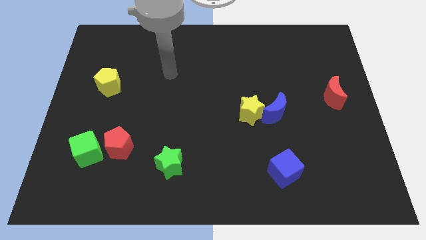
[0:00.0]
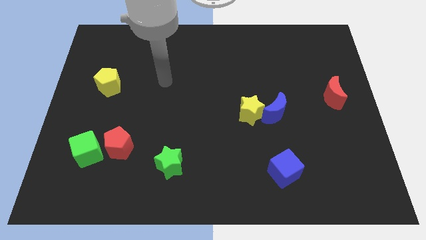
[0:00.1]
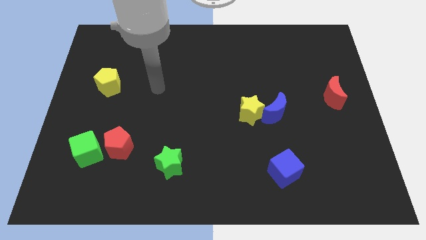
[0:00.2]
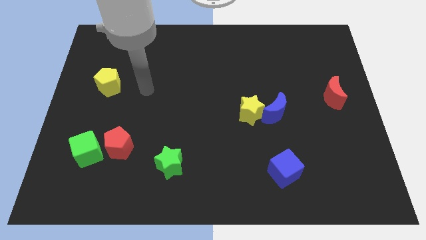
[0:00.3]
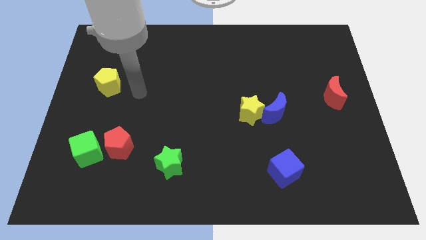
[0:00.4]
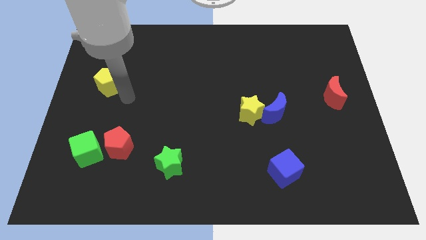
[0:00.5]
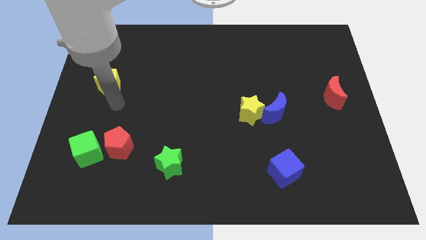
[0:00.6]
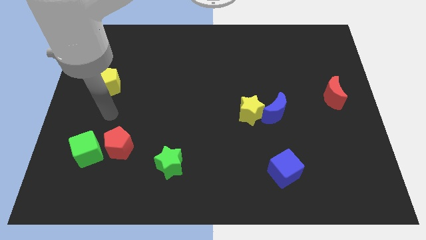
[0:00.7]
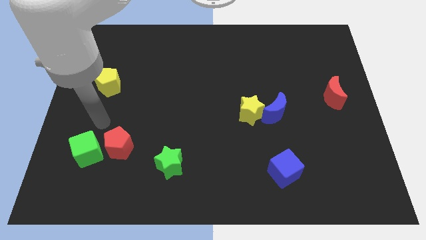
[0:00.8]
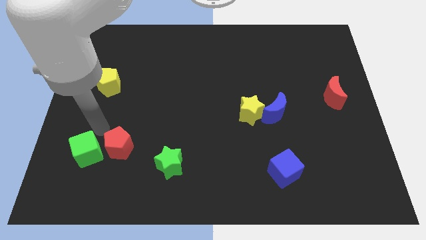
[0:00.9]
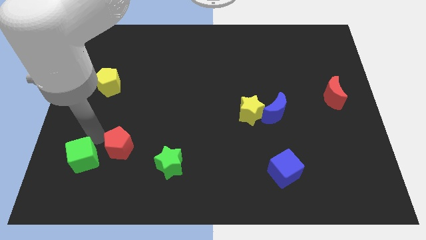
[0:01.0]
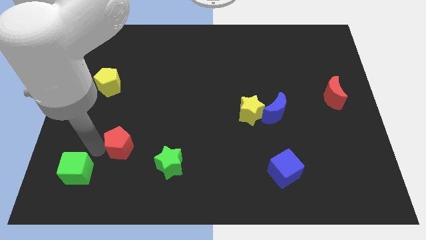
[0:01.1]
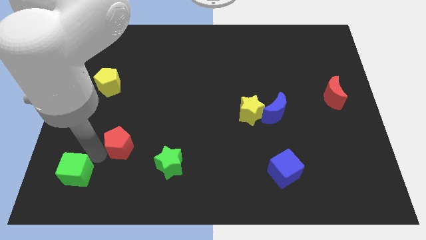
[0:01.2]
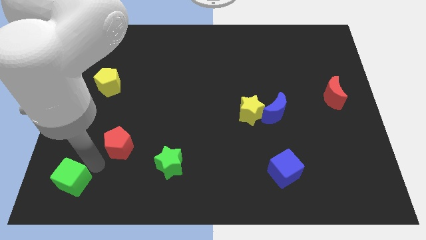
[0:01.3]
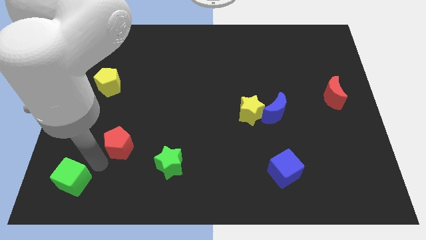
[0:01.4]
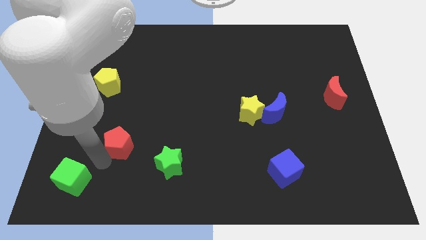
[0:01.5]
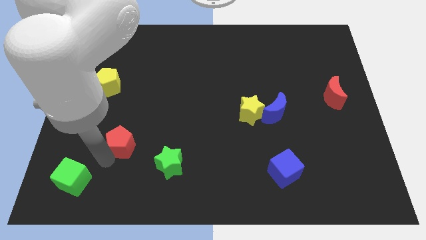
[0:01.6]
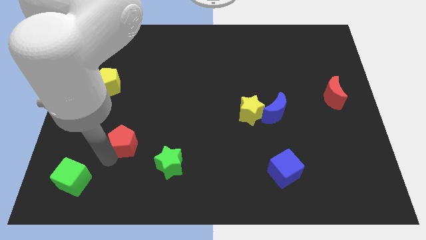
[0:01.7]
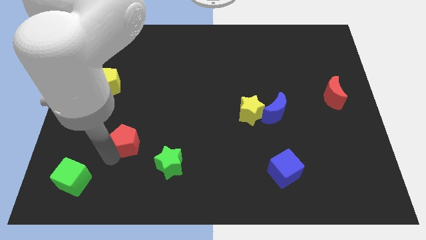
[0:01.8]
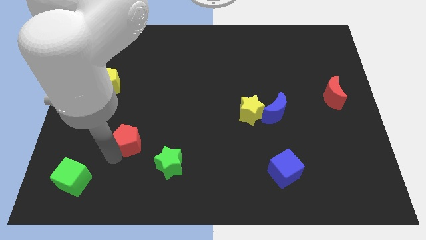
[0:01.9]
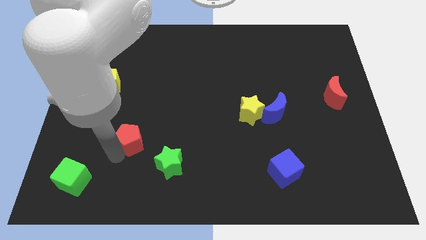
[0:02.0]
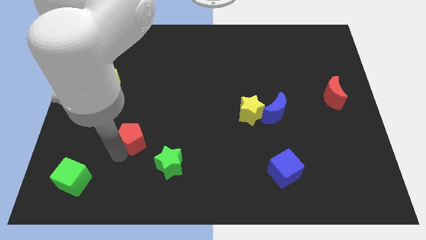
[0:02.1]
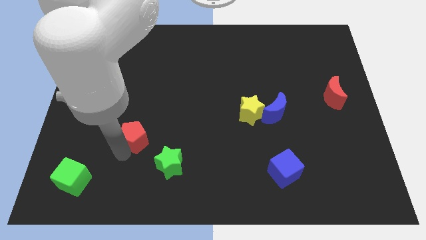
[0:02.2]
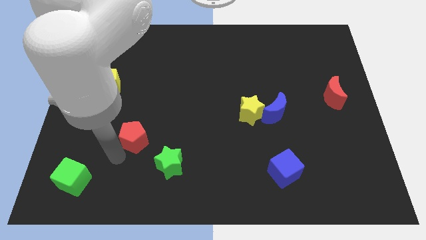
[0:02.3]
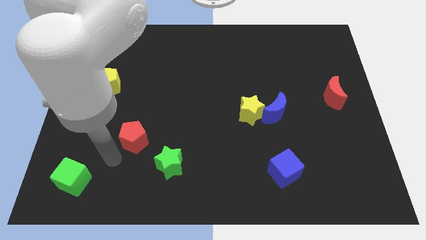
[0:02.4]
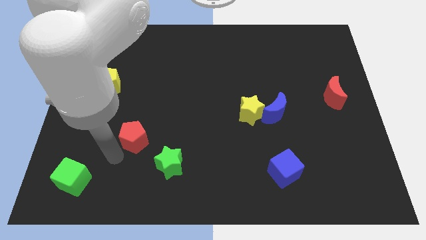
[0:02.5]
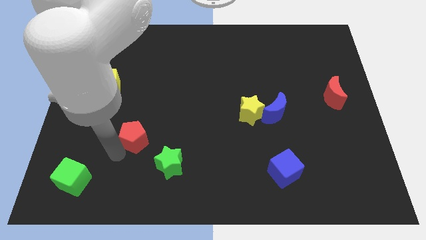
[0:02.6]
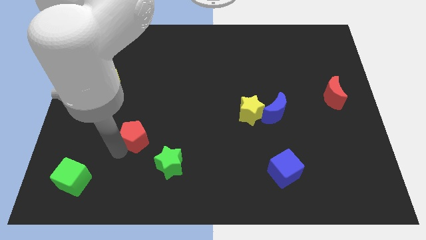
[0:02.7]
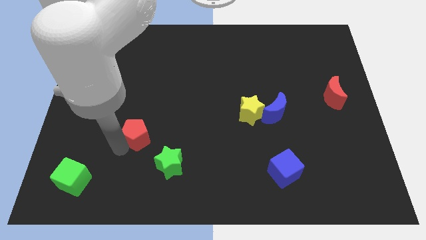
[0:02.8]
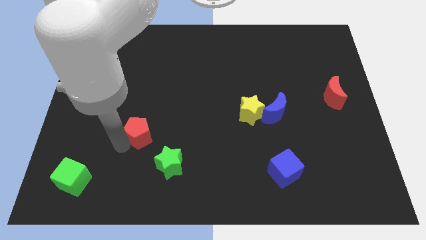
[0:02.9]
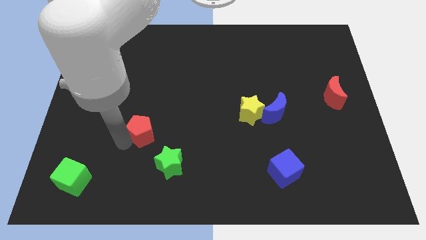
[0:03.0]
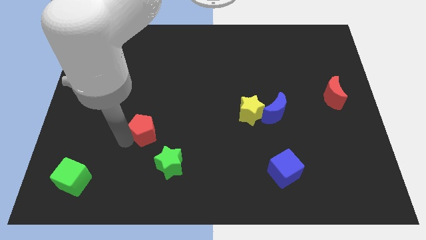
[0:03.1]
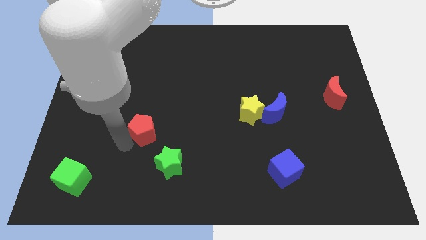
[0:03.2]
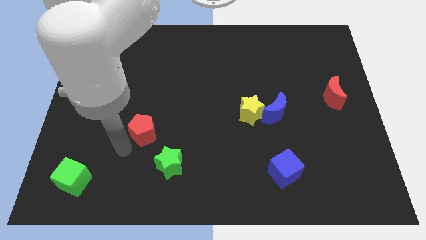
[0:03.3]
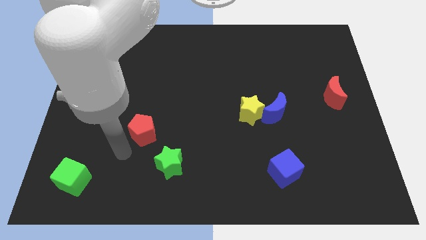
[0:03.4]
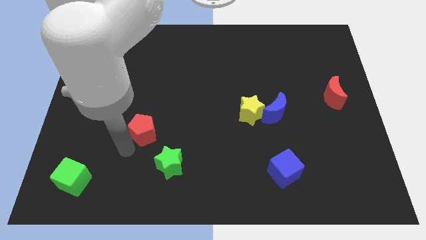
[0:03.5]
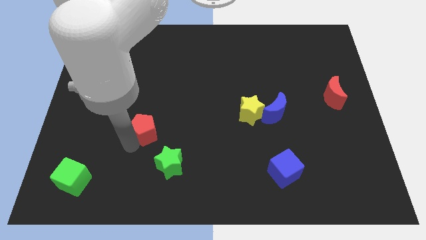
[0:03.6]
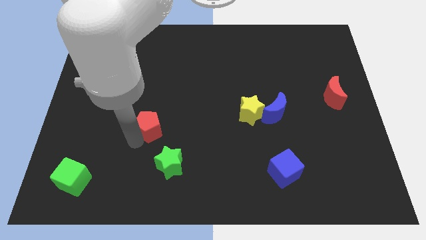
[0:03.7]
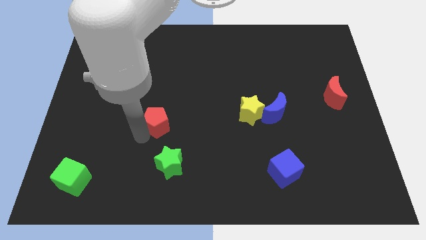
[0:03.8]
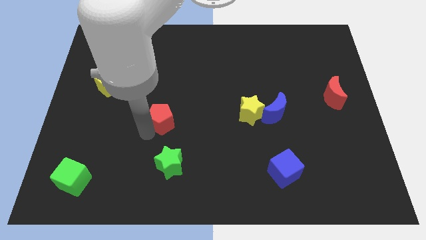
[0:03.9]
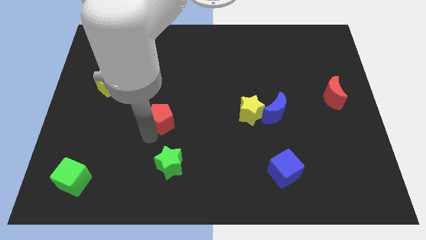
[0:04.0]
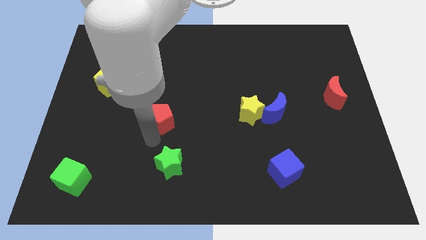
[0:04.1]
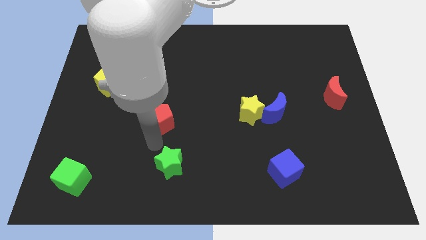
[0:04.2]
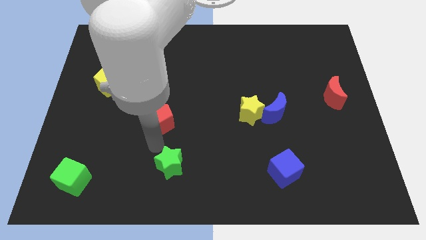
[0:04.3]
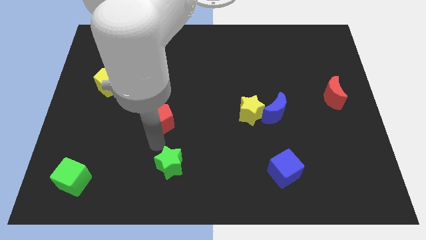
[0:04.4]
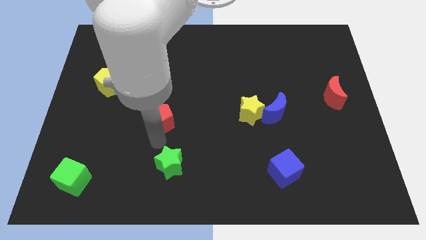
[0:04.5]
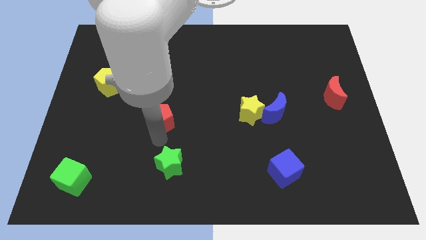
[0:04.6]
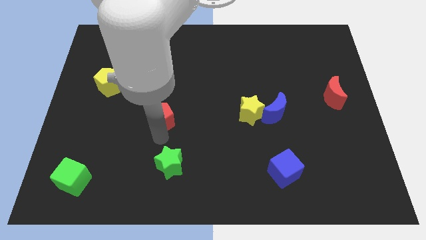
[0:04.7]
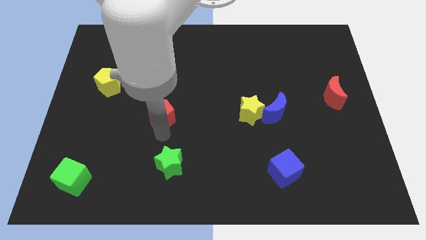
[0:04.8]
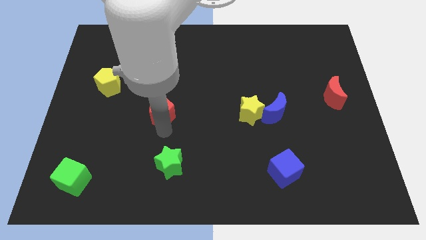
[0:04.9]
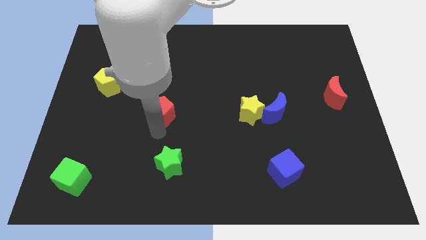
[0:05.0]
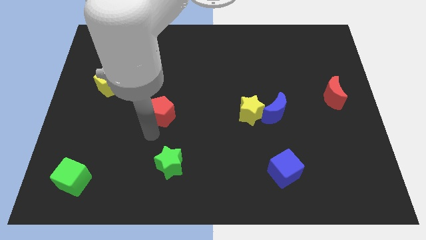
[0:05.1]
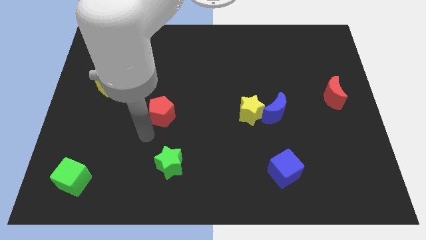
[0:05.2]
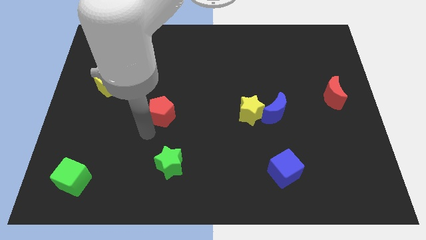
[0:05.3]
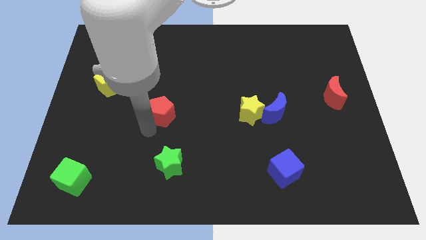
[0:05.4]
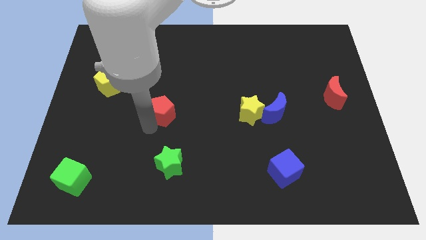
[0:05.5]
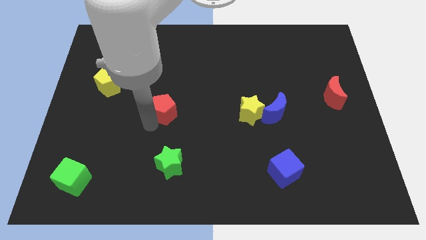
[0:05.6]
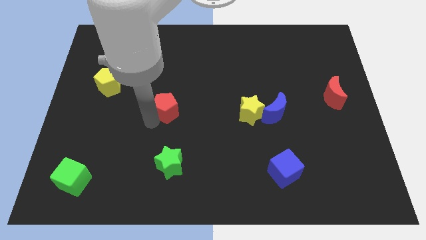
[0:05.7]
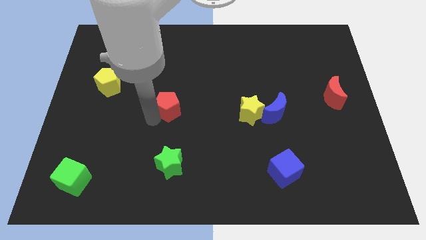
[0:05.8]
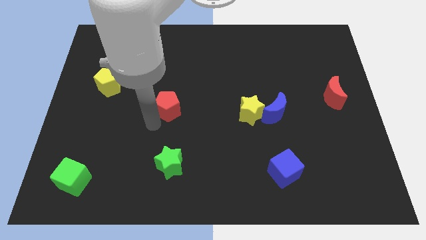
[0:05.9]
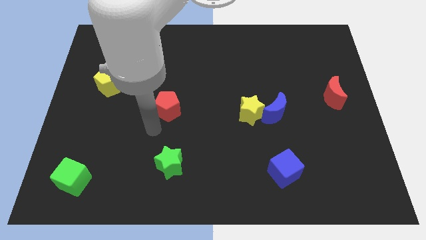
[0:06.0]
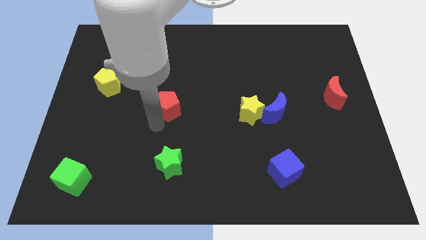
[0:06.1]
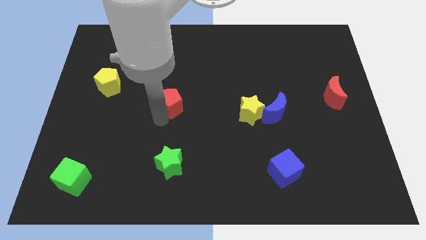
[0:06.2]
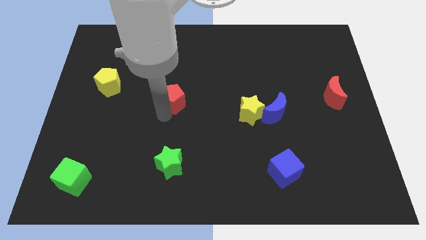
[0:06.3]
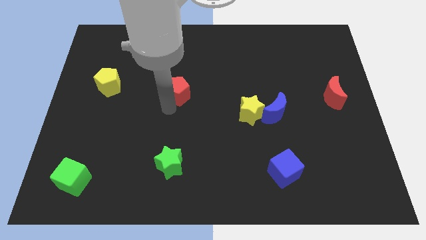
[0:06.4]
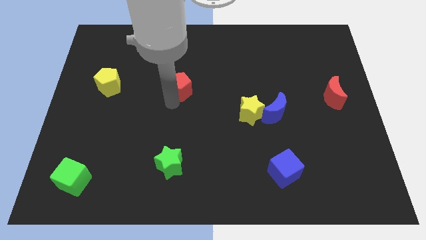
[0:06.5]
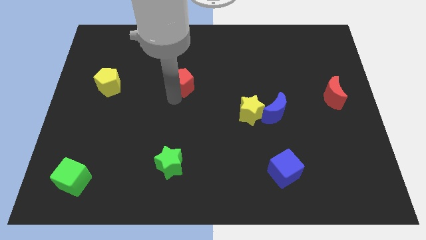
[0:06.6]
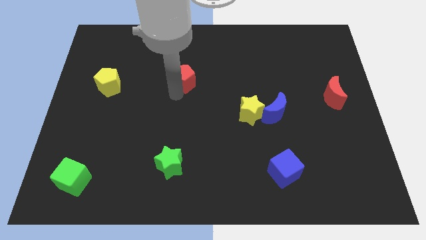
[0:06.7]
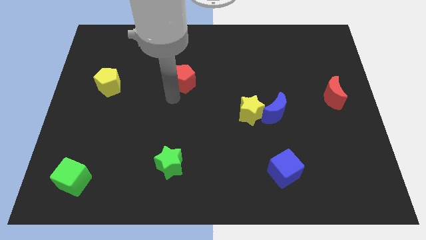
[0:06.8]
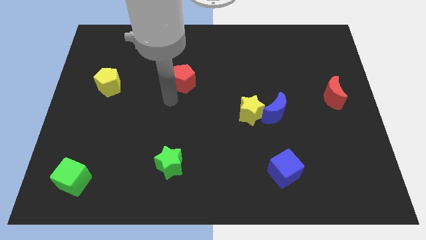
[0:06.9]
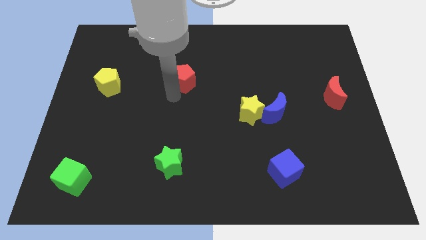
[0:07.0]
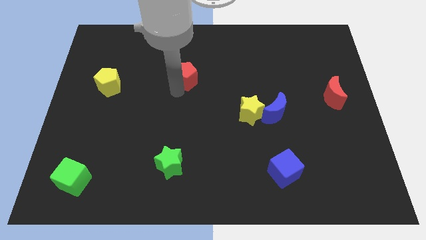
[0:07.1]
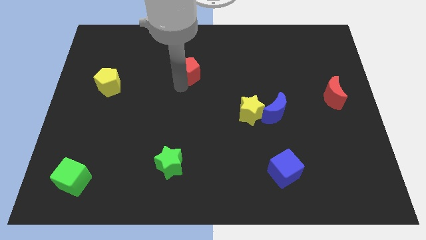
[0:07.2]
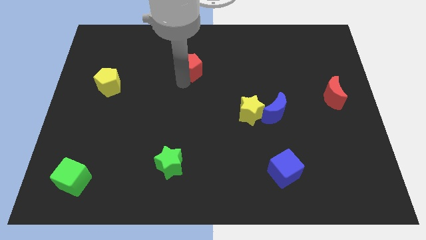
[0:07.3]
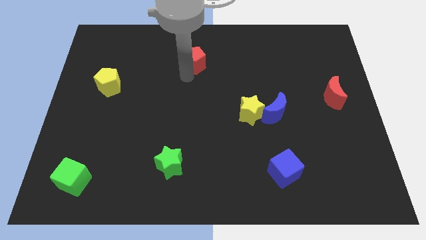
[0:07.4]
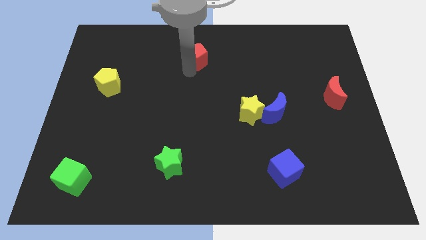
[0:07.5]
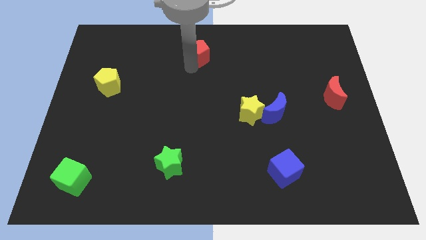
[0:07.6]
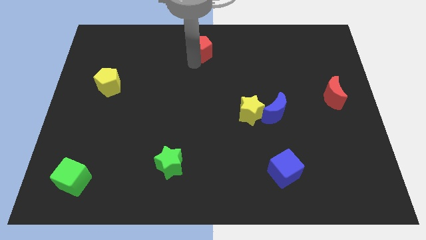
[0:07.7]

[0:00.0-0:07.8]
move the red pentagon to the towards your base
